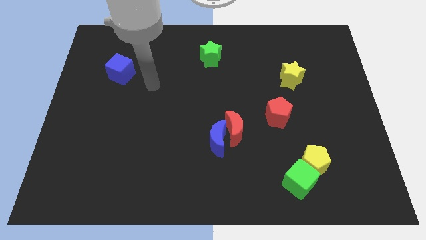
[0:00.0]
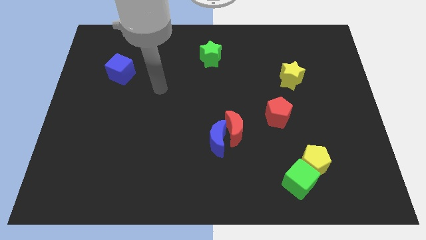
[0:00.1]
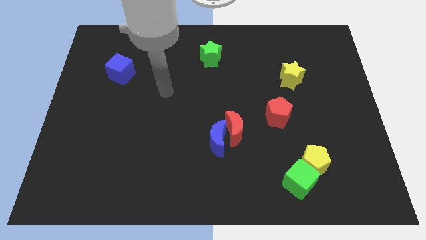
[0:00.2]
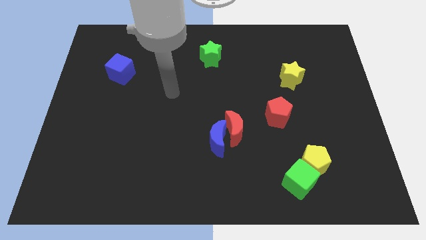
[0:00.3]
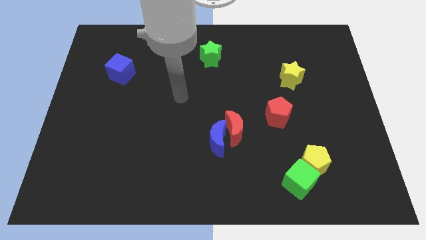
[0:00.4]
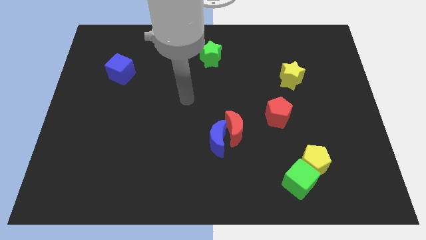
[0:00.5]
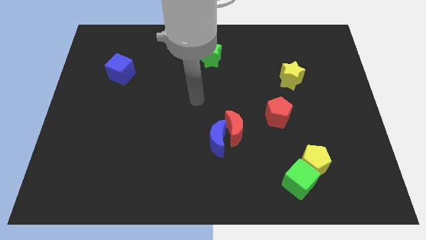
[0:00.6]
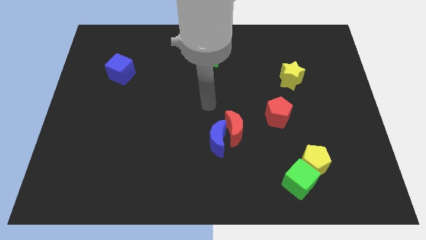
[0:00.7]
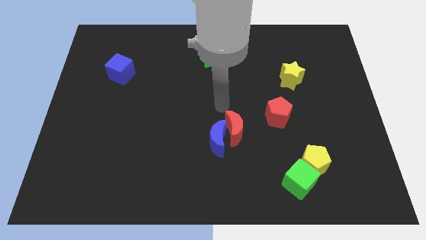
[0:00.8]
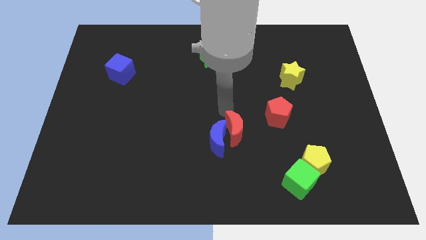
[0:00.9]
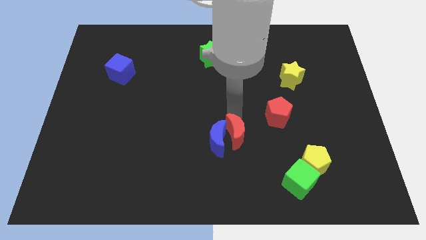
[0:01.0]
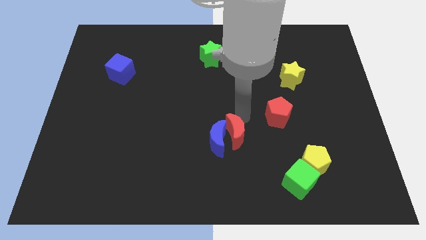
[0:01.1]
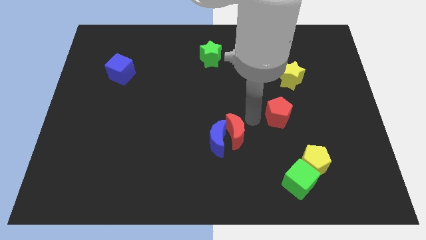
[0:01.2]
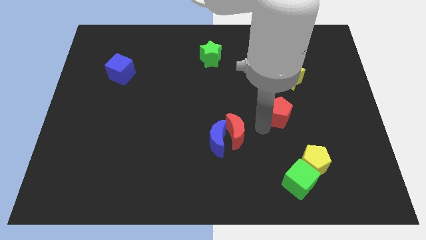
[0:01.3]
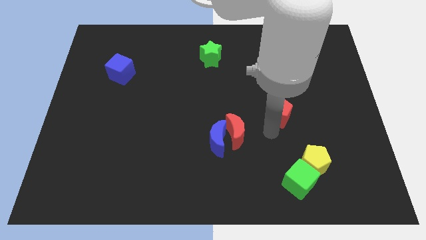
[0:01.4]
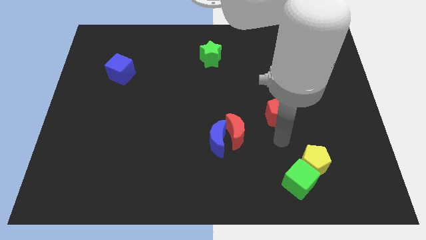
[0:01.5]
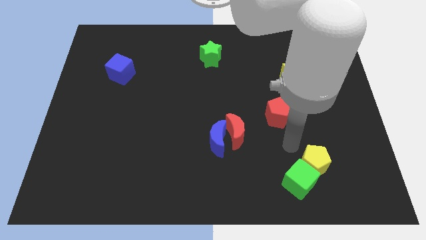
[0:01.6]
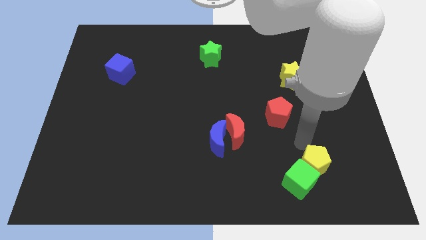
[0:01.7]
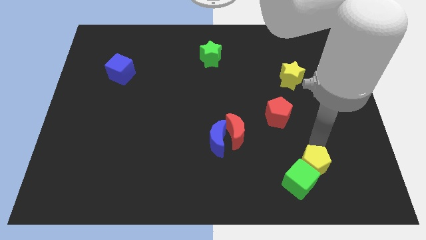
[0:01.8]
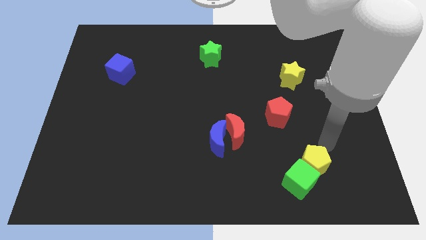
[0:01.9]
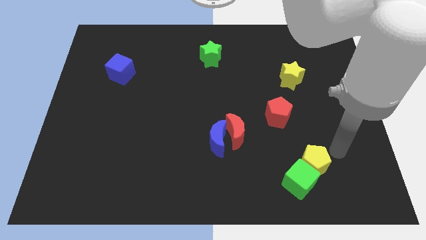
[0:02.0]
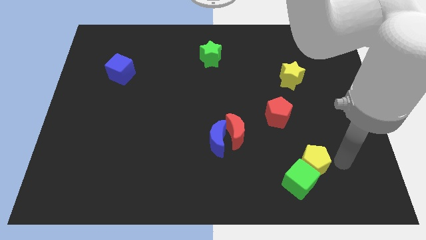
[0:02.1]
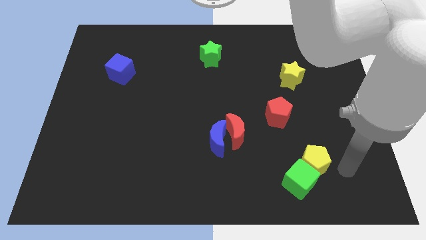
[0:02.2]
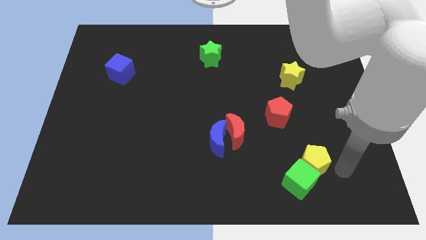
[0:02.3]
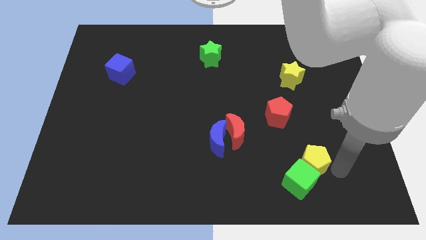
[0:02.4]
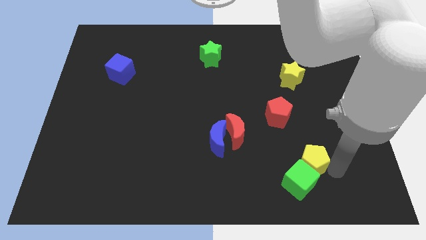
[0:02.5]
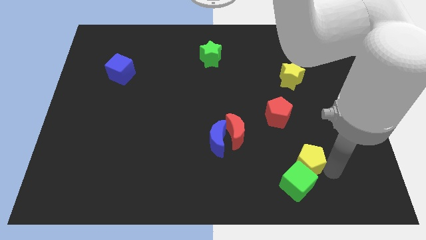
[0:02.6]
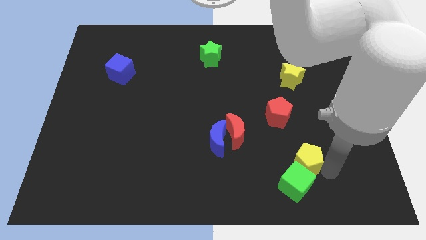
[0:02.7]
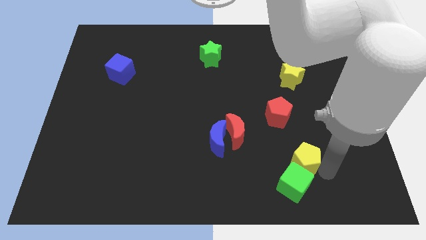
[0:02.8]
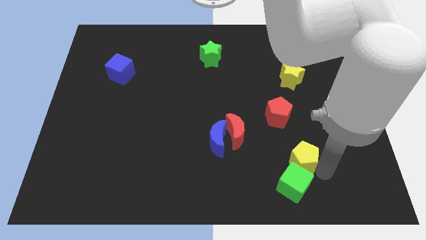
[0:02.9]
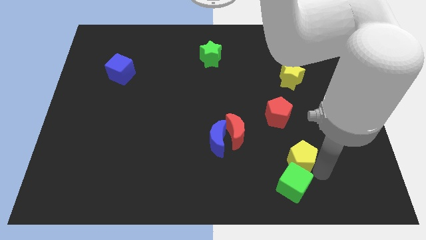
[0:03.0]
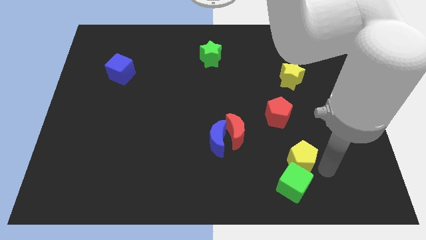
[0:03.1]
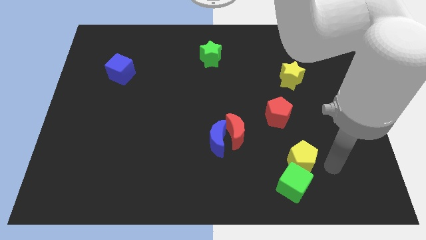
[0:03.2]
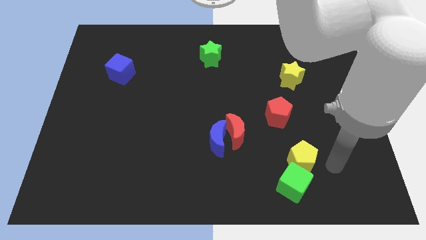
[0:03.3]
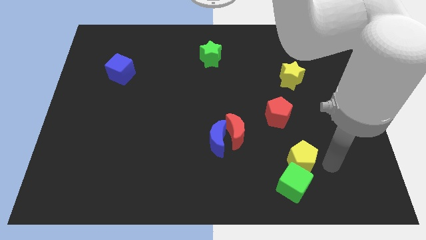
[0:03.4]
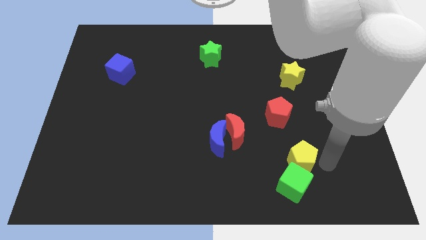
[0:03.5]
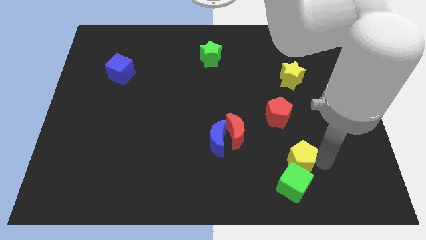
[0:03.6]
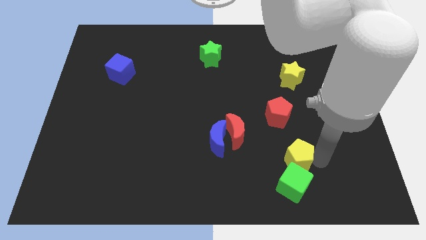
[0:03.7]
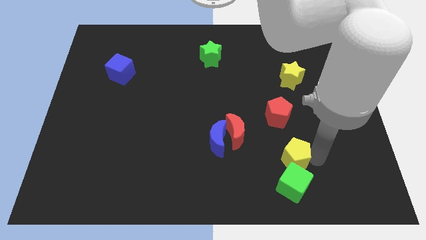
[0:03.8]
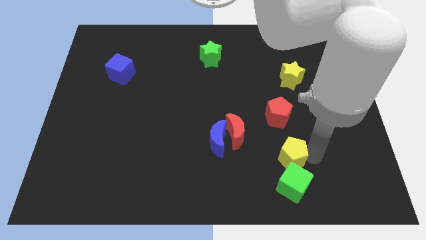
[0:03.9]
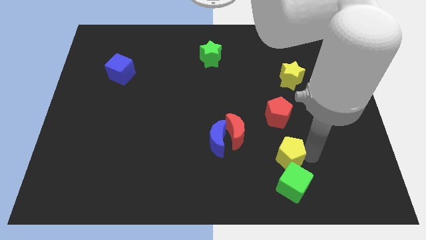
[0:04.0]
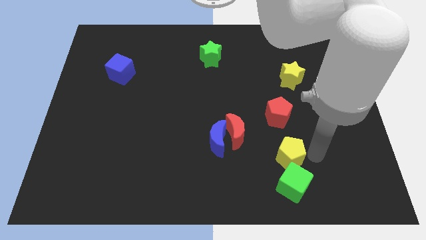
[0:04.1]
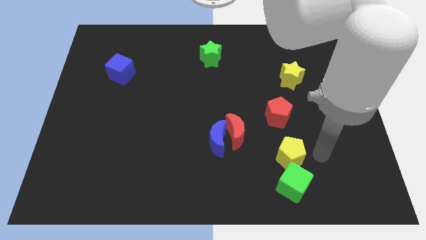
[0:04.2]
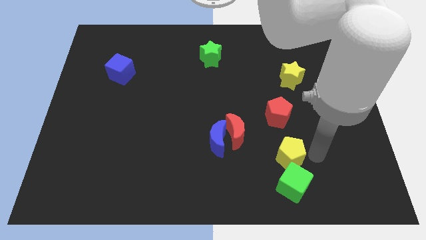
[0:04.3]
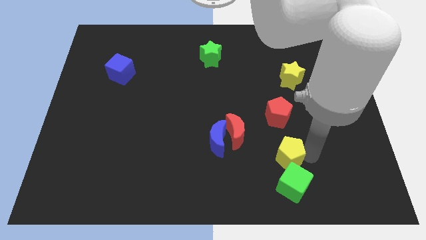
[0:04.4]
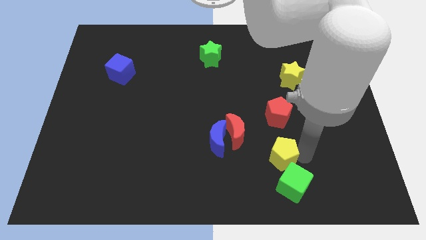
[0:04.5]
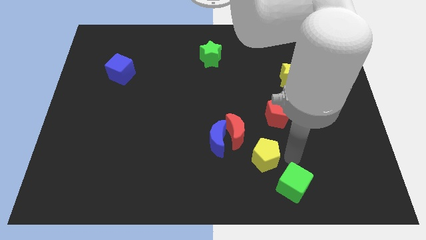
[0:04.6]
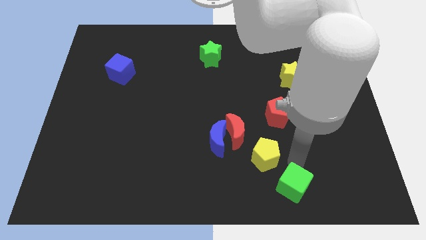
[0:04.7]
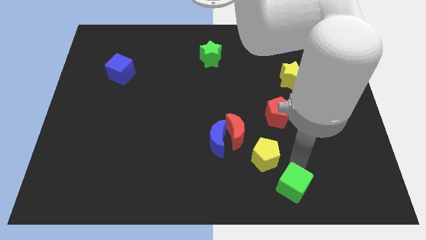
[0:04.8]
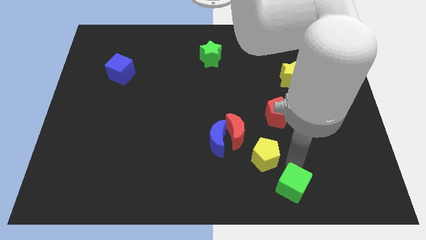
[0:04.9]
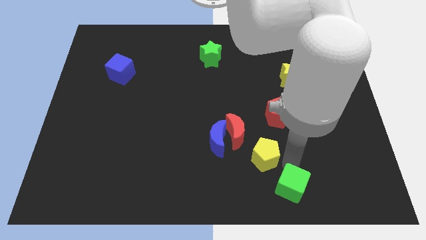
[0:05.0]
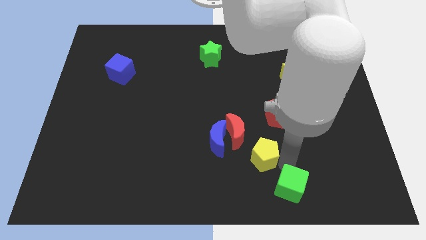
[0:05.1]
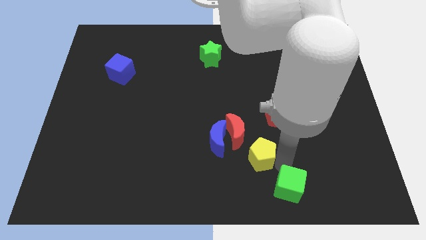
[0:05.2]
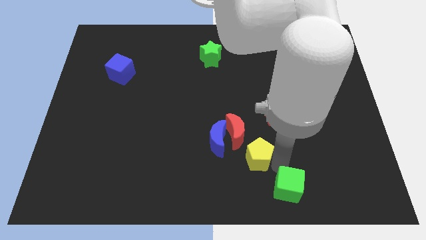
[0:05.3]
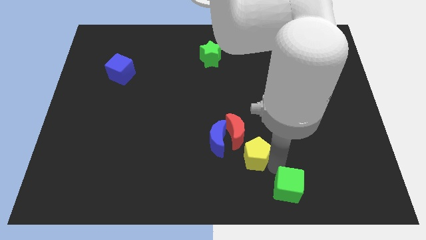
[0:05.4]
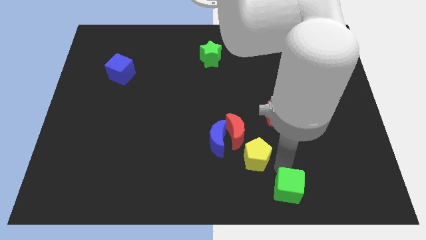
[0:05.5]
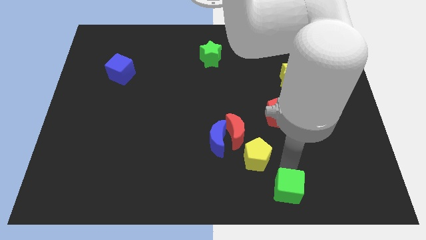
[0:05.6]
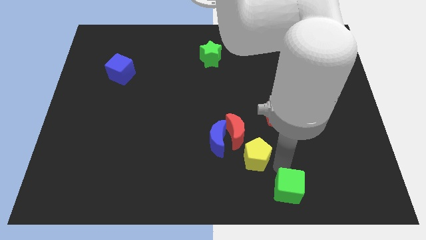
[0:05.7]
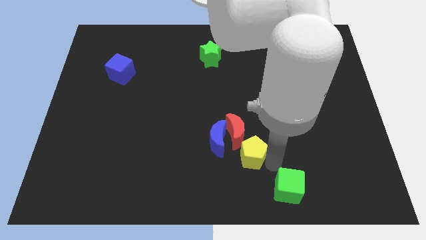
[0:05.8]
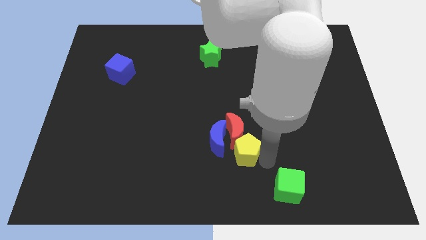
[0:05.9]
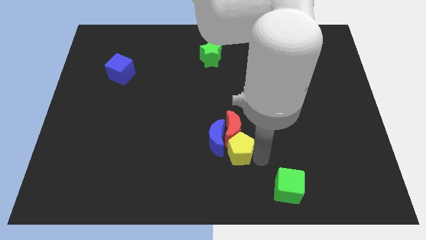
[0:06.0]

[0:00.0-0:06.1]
put the yellow pentagon next to the blue moon

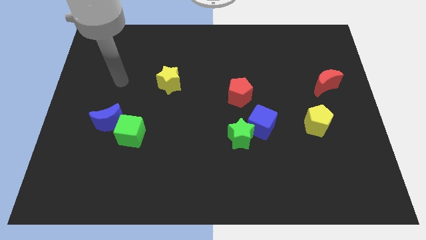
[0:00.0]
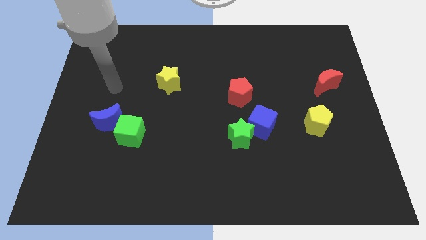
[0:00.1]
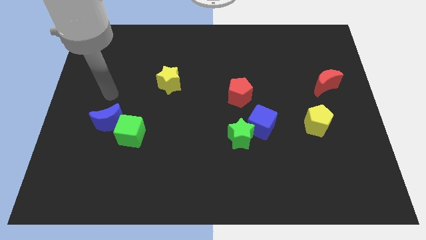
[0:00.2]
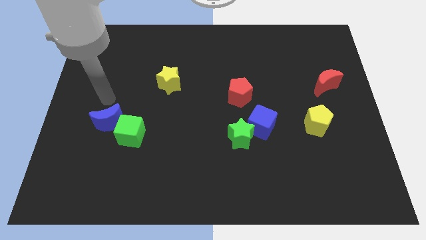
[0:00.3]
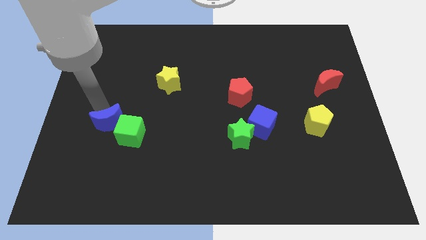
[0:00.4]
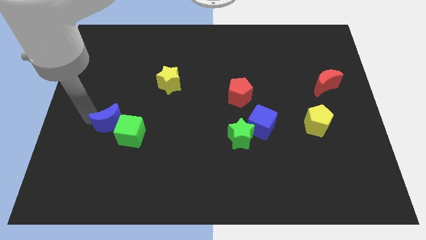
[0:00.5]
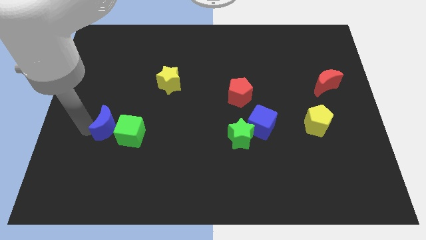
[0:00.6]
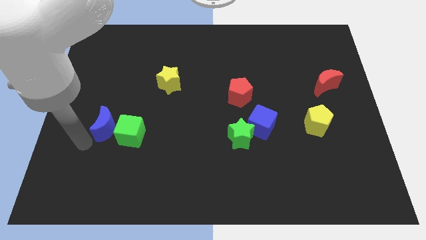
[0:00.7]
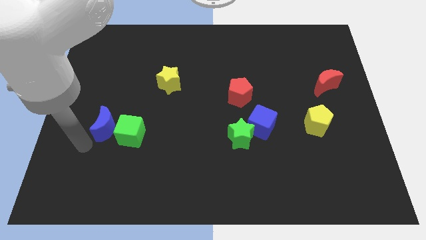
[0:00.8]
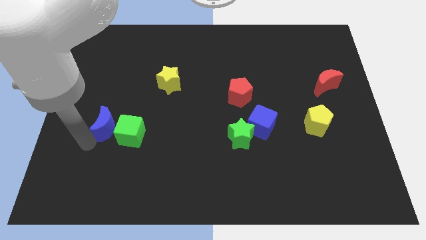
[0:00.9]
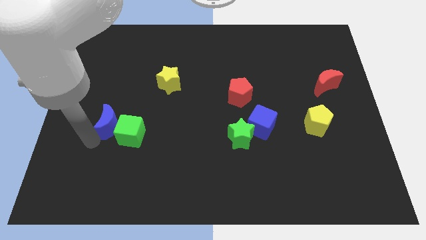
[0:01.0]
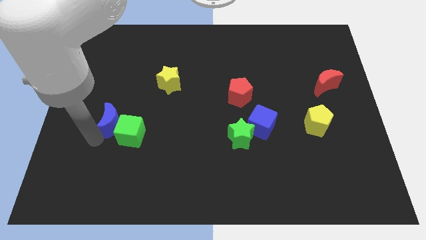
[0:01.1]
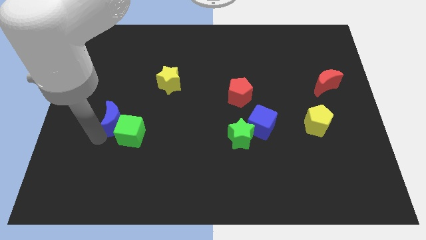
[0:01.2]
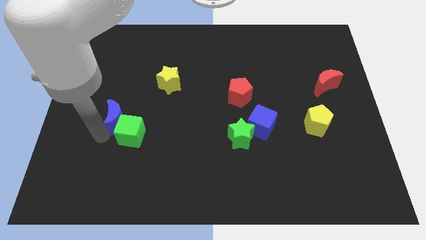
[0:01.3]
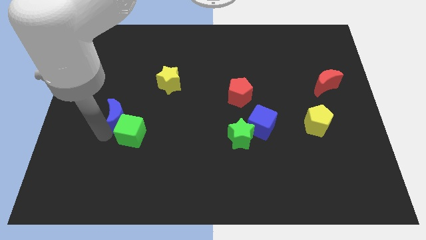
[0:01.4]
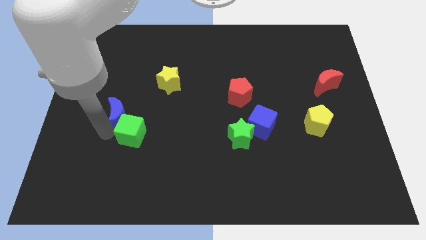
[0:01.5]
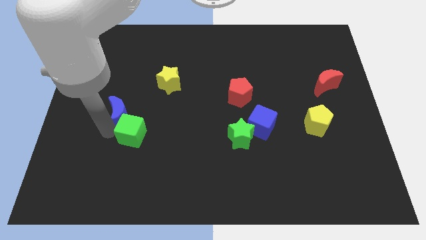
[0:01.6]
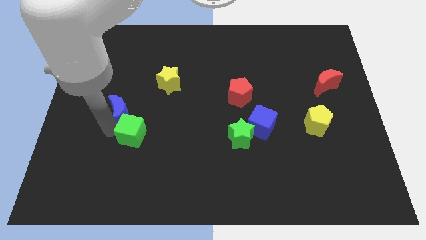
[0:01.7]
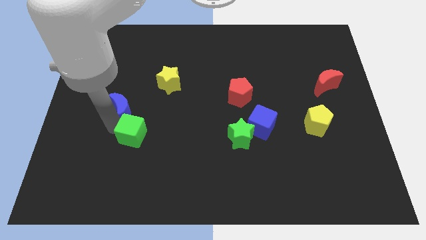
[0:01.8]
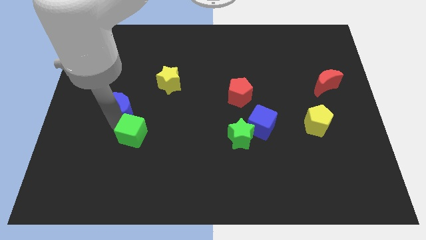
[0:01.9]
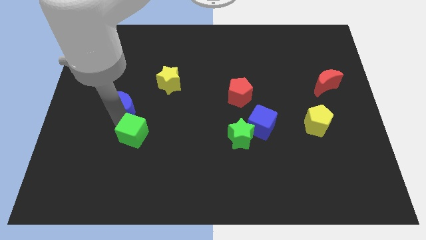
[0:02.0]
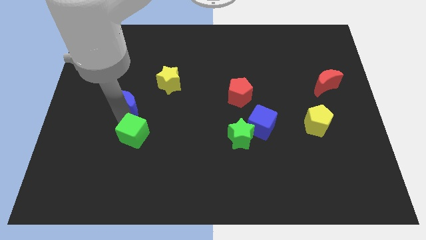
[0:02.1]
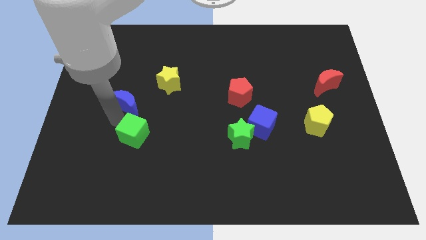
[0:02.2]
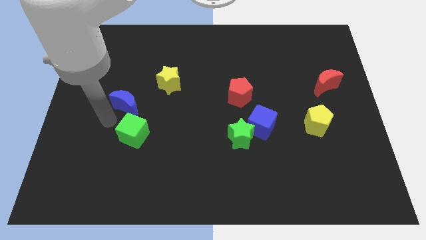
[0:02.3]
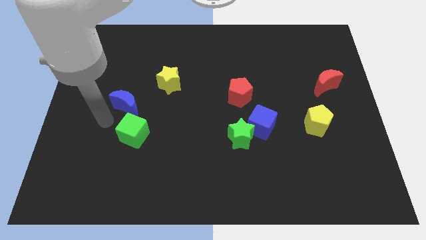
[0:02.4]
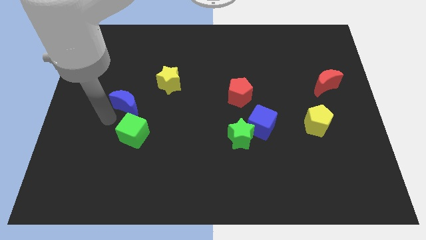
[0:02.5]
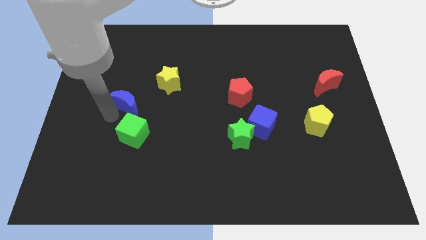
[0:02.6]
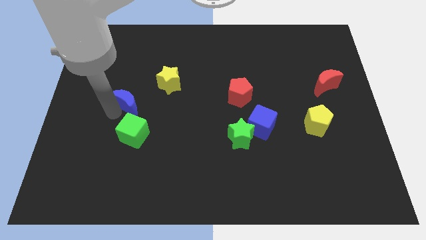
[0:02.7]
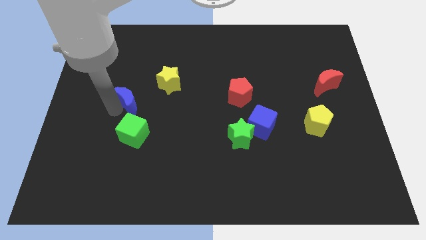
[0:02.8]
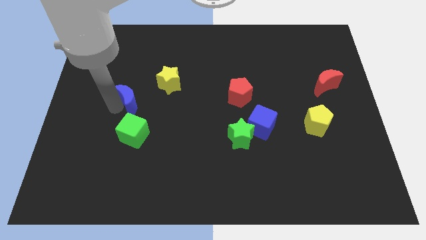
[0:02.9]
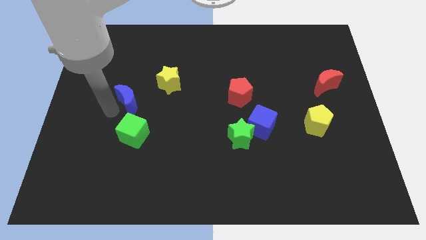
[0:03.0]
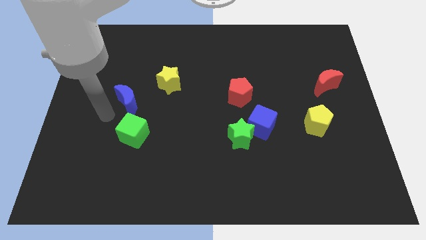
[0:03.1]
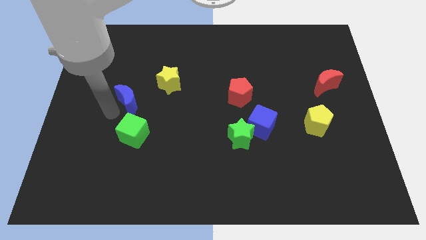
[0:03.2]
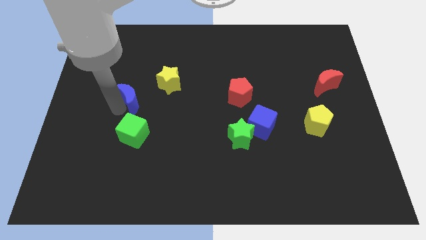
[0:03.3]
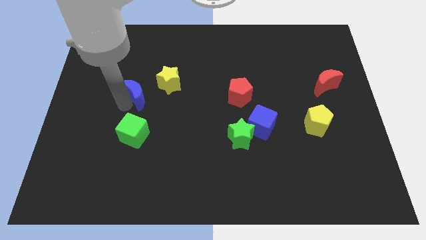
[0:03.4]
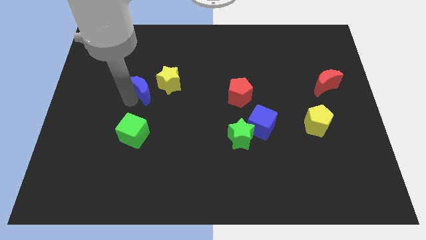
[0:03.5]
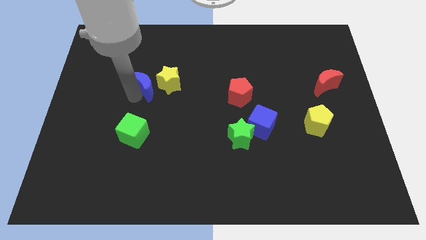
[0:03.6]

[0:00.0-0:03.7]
put the blue moon to the yellow star
